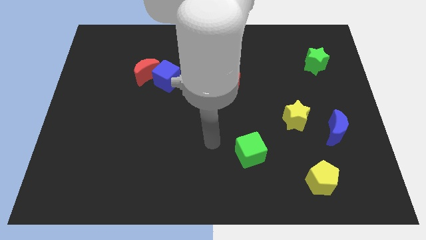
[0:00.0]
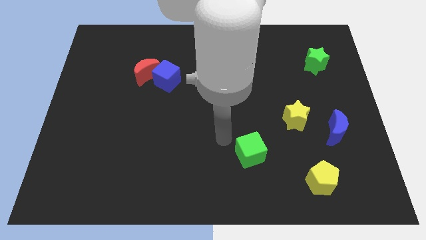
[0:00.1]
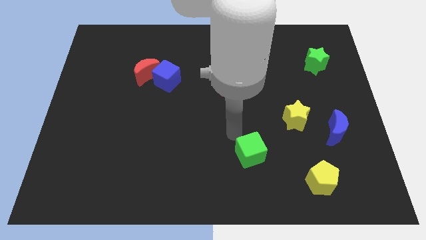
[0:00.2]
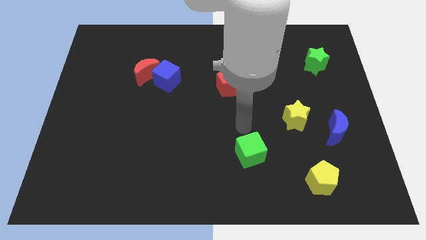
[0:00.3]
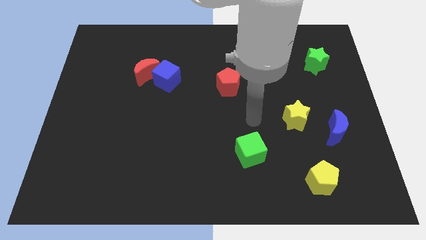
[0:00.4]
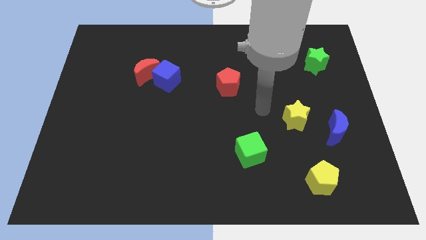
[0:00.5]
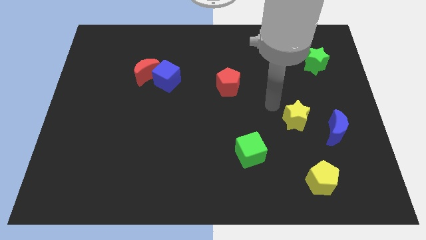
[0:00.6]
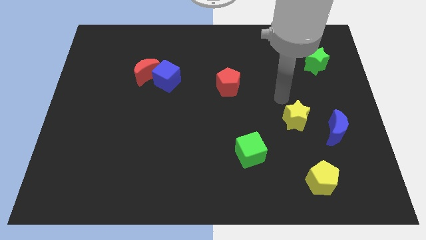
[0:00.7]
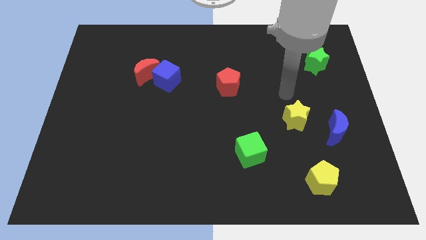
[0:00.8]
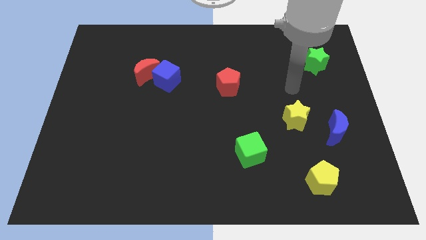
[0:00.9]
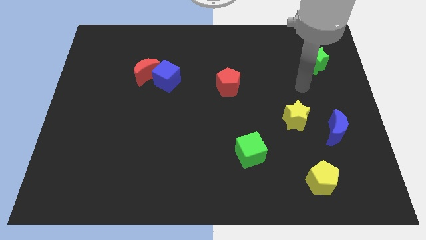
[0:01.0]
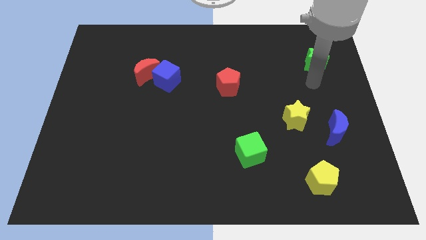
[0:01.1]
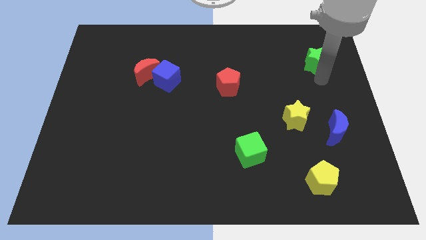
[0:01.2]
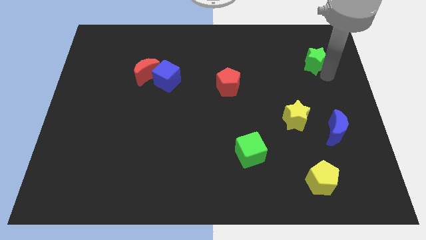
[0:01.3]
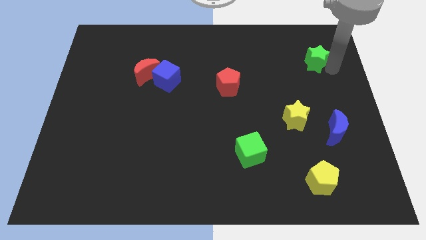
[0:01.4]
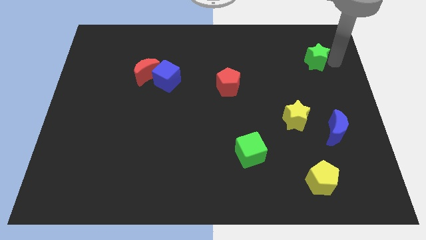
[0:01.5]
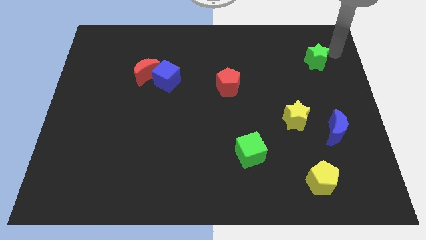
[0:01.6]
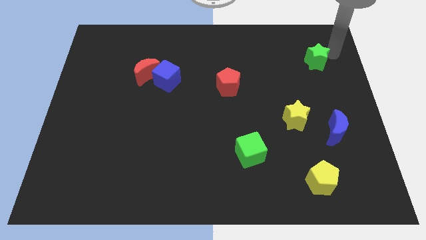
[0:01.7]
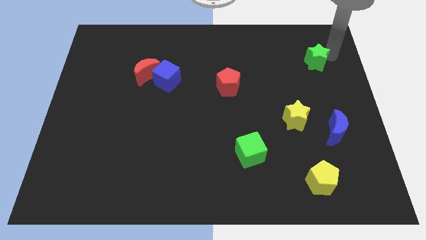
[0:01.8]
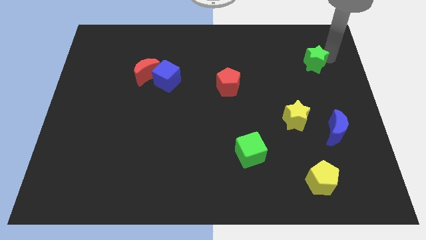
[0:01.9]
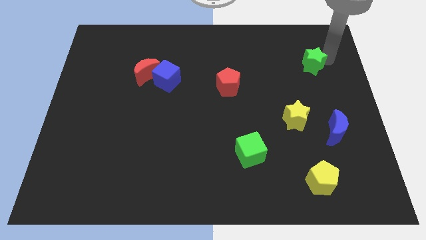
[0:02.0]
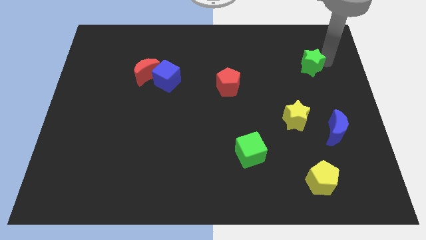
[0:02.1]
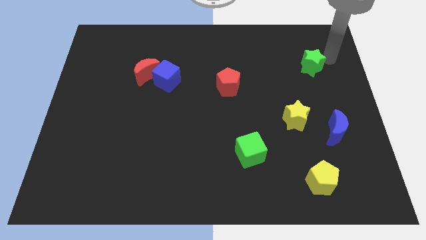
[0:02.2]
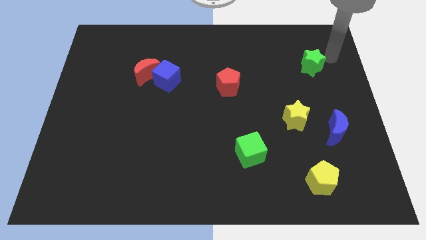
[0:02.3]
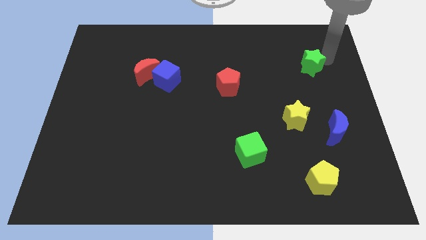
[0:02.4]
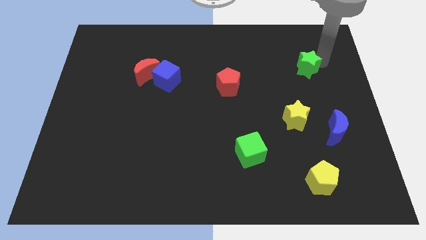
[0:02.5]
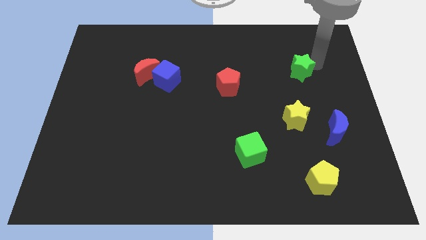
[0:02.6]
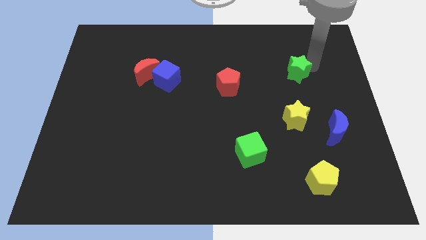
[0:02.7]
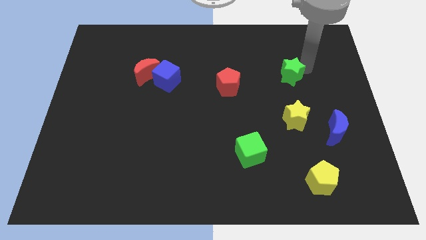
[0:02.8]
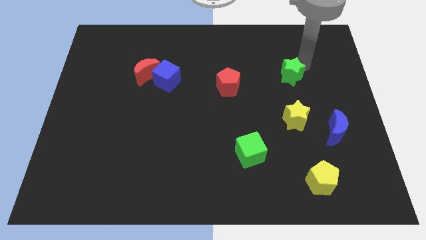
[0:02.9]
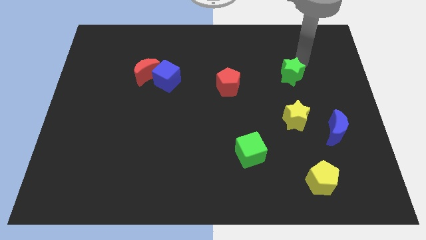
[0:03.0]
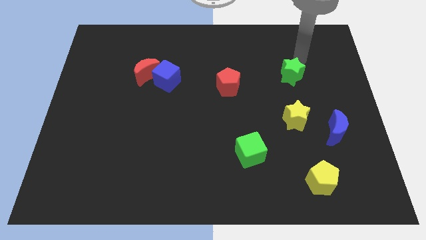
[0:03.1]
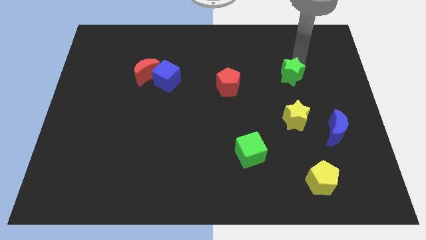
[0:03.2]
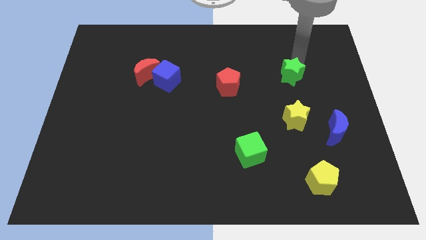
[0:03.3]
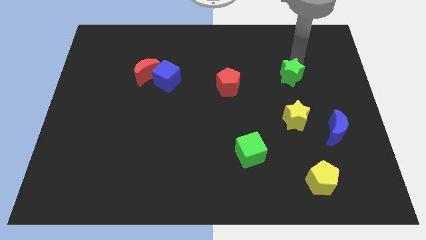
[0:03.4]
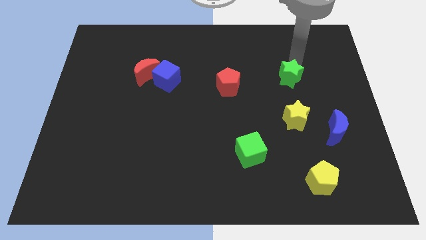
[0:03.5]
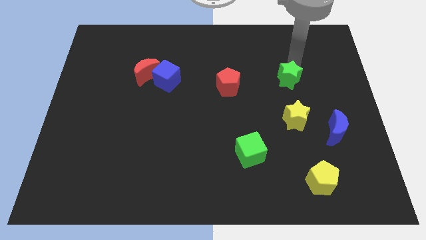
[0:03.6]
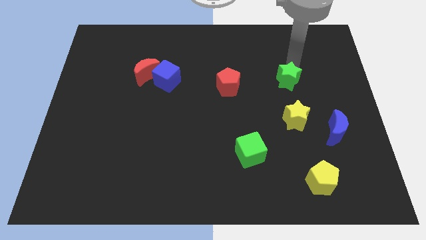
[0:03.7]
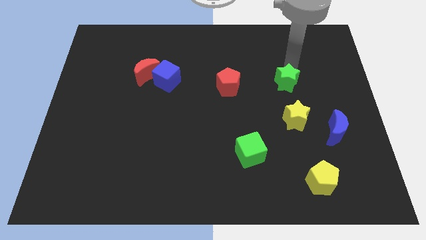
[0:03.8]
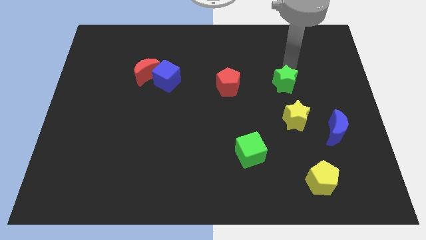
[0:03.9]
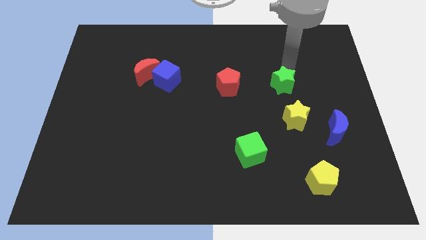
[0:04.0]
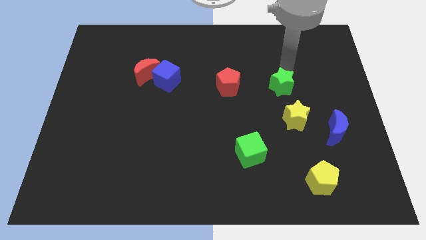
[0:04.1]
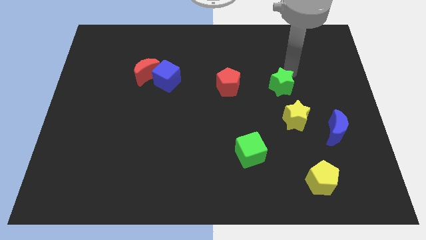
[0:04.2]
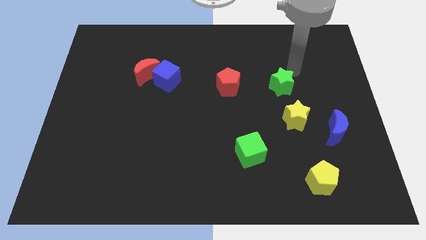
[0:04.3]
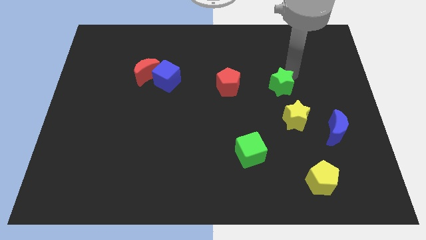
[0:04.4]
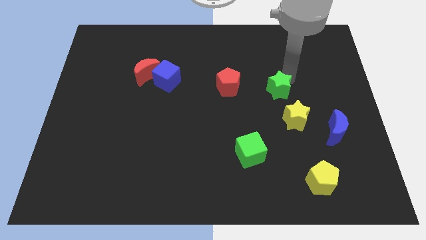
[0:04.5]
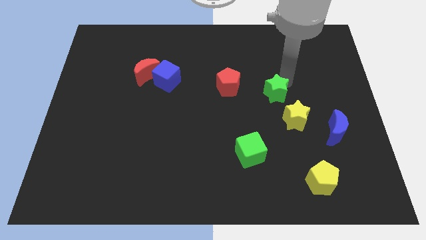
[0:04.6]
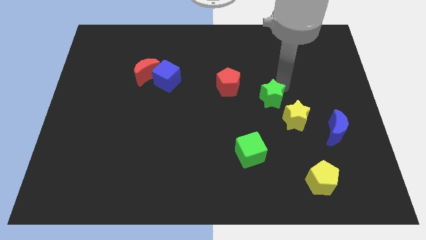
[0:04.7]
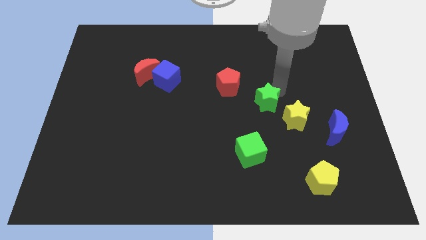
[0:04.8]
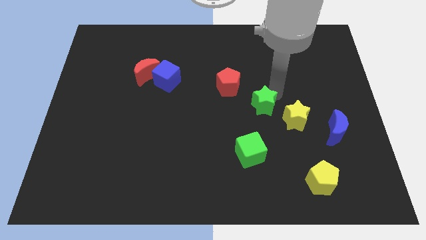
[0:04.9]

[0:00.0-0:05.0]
slide the green star downwards and then to the left

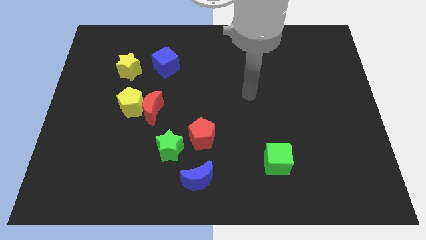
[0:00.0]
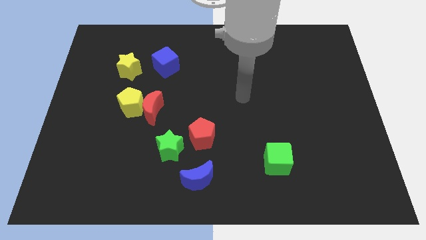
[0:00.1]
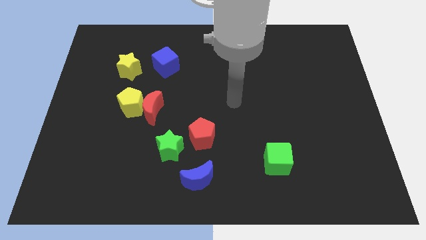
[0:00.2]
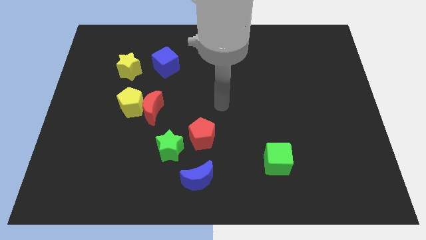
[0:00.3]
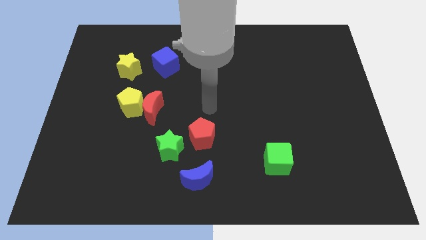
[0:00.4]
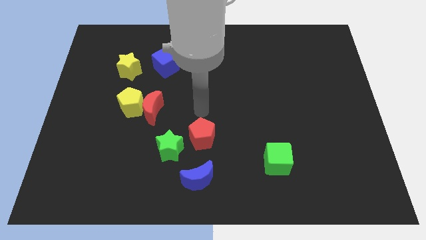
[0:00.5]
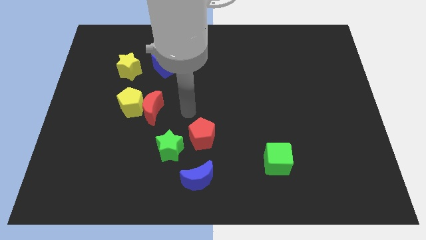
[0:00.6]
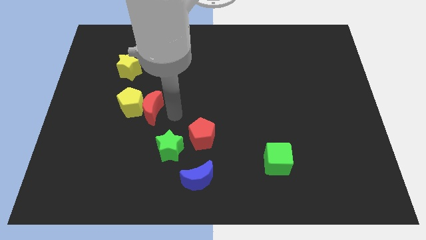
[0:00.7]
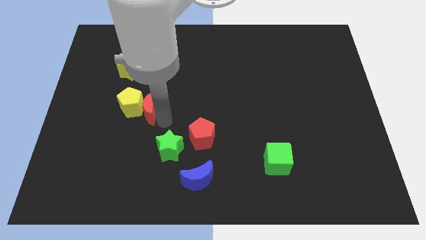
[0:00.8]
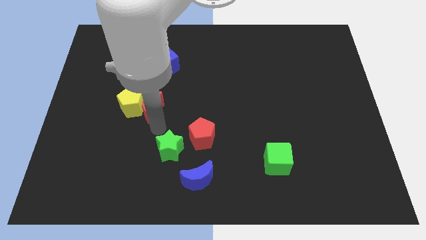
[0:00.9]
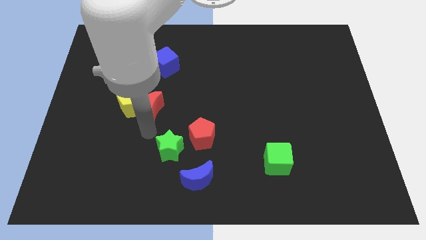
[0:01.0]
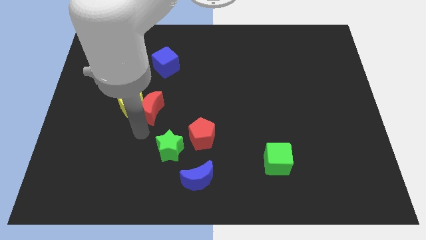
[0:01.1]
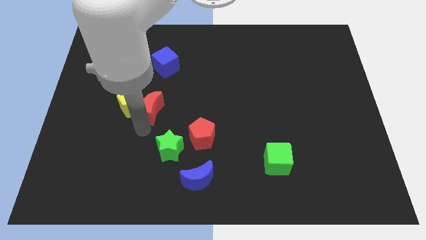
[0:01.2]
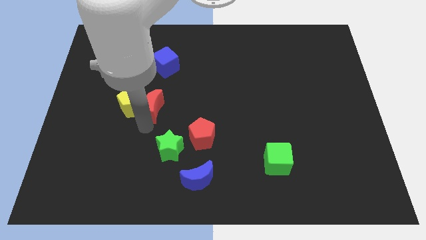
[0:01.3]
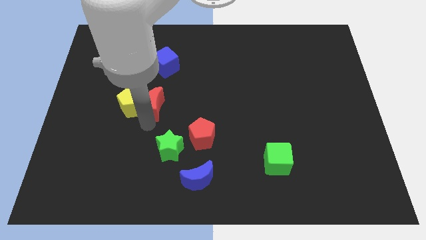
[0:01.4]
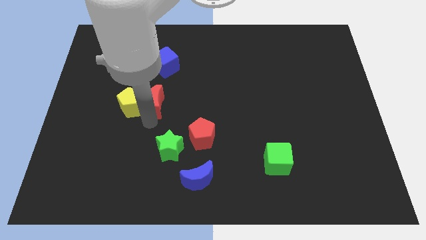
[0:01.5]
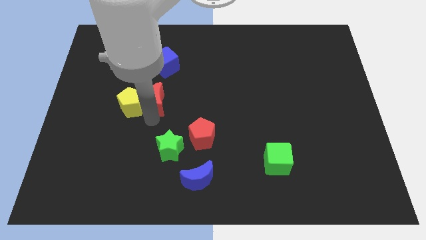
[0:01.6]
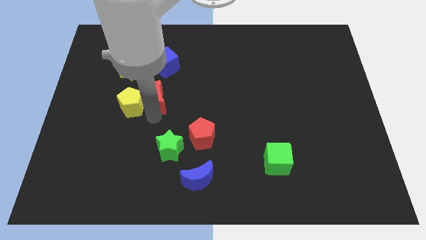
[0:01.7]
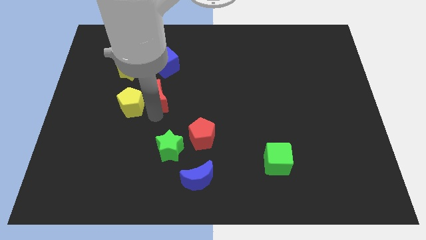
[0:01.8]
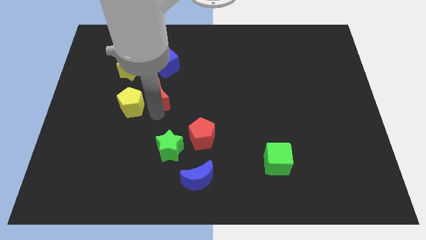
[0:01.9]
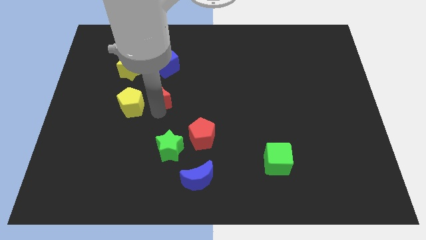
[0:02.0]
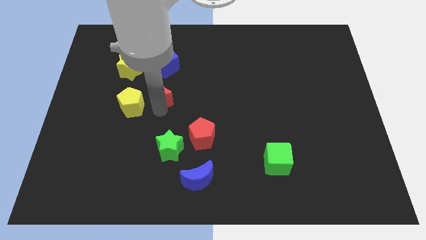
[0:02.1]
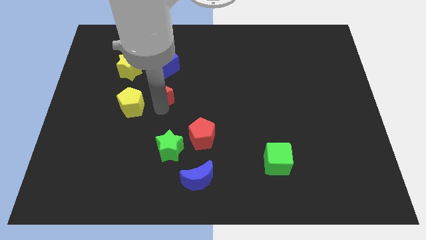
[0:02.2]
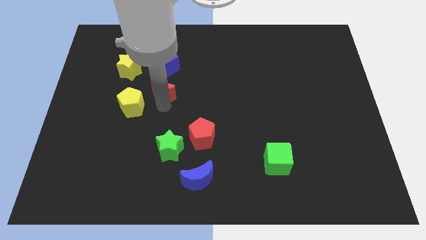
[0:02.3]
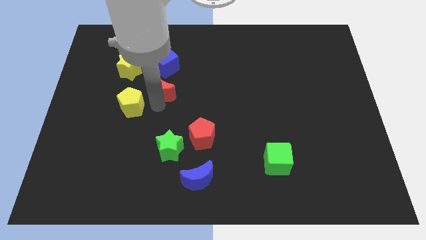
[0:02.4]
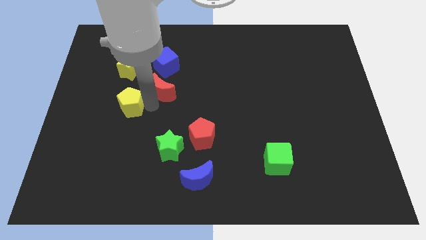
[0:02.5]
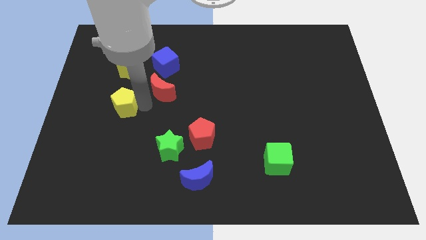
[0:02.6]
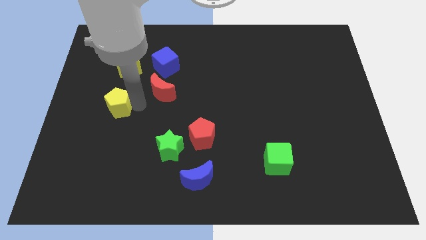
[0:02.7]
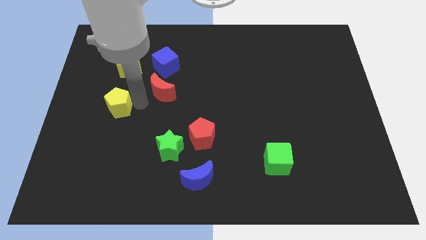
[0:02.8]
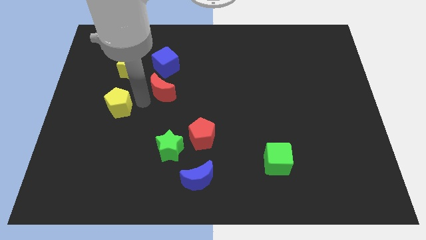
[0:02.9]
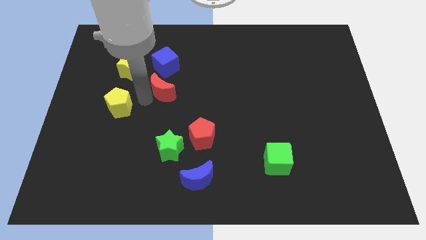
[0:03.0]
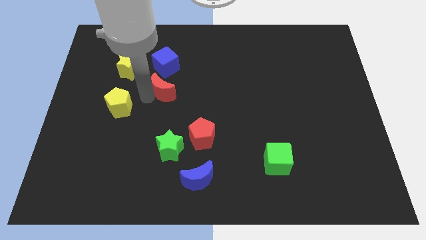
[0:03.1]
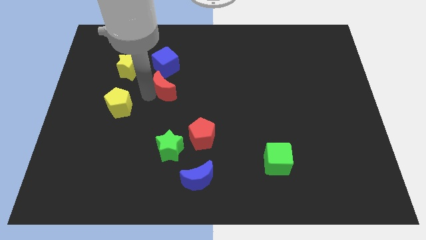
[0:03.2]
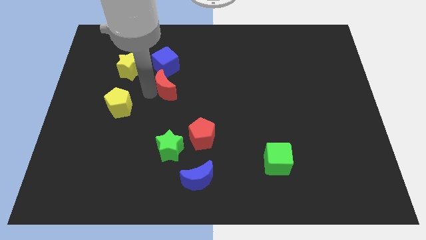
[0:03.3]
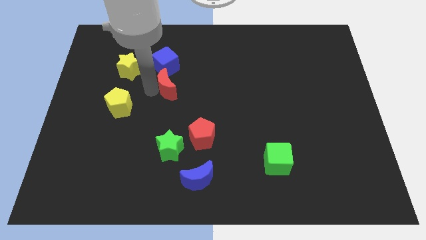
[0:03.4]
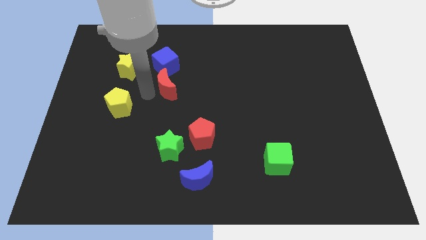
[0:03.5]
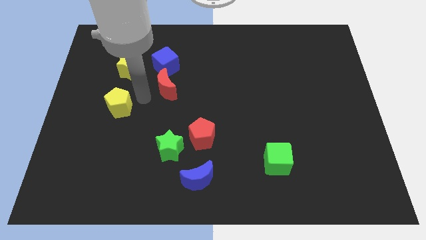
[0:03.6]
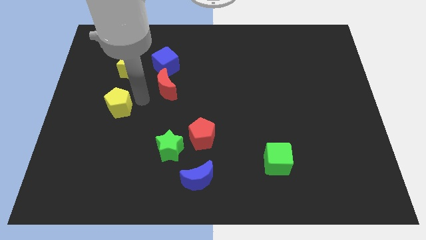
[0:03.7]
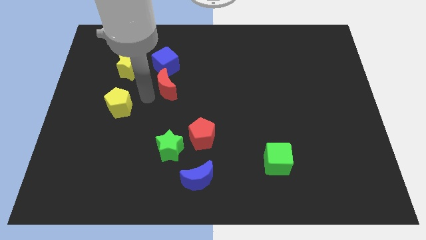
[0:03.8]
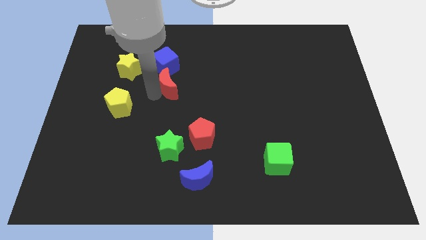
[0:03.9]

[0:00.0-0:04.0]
slide the red moon a bit upwards and then to the right
